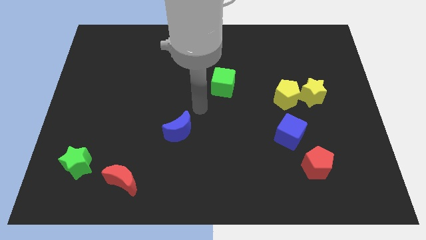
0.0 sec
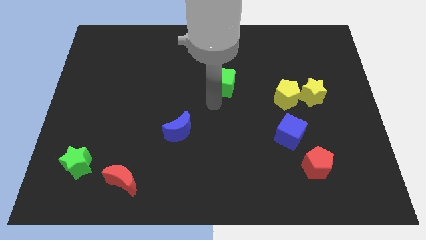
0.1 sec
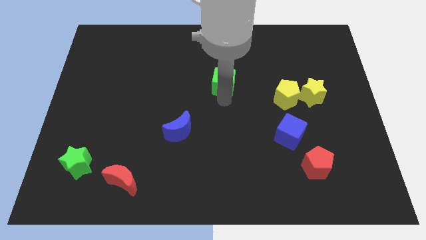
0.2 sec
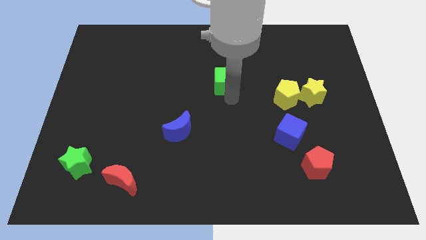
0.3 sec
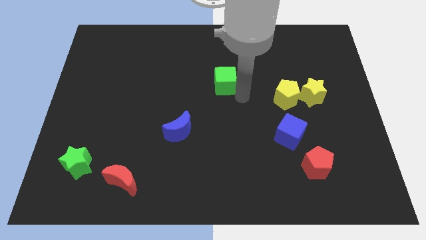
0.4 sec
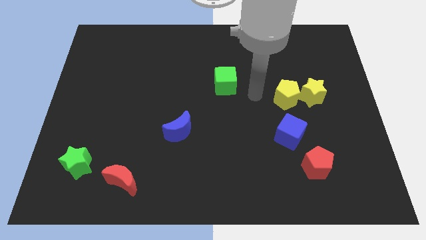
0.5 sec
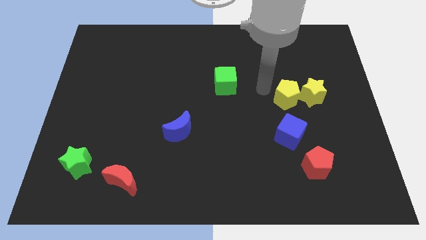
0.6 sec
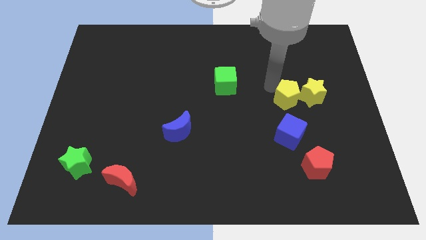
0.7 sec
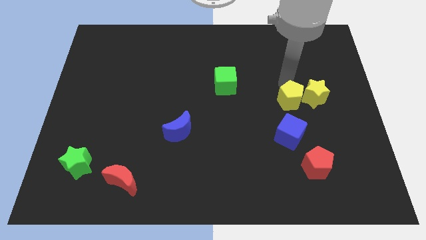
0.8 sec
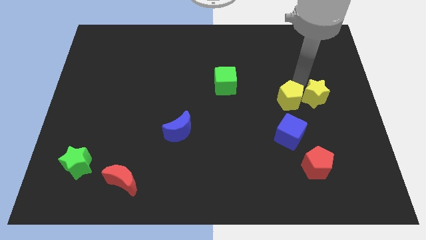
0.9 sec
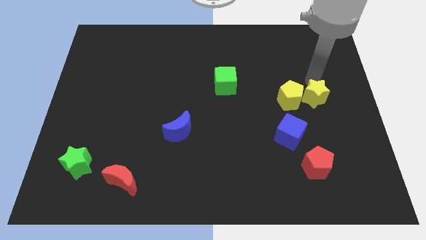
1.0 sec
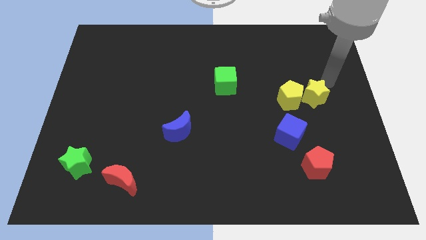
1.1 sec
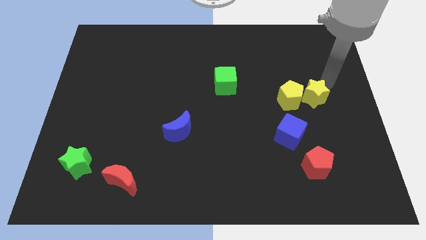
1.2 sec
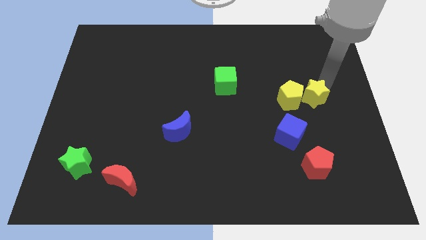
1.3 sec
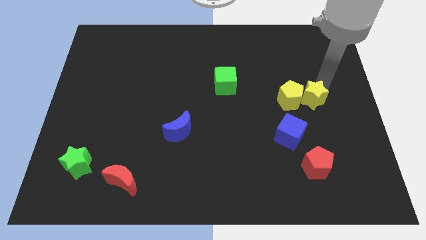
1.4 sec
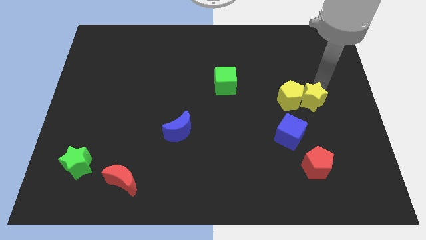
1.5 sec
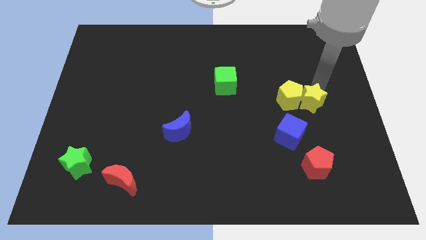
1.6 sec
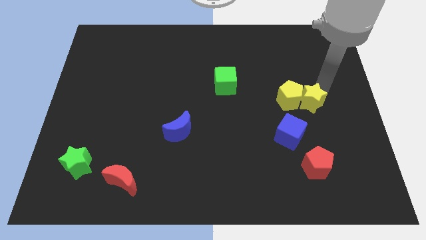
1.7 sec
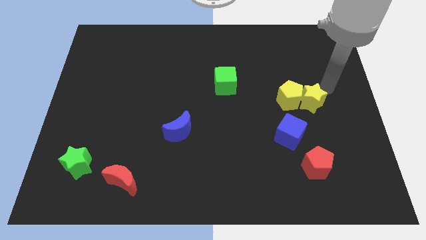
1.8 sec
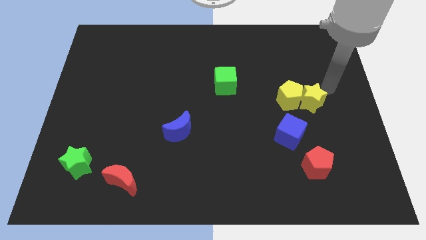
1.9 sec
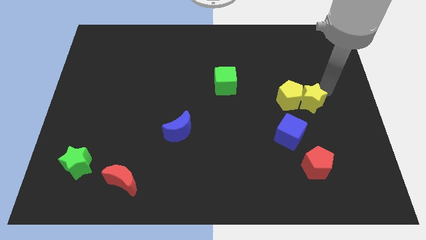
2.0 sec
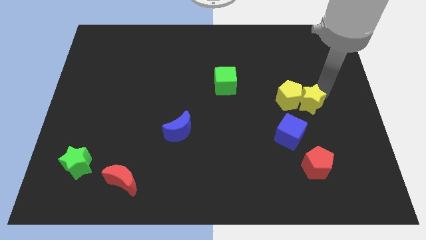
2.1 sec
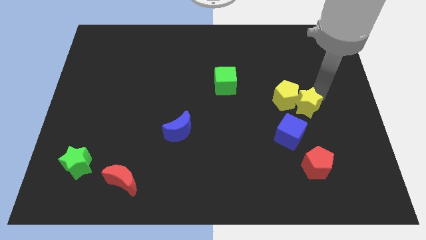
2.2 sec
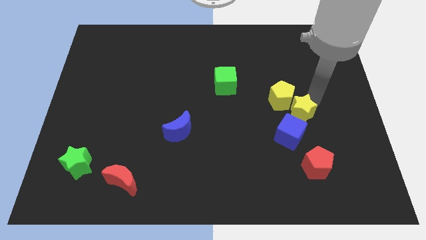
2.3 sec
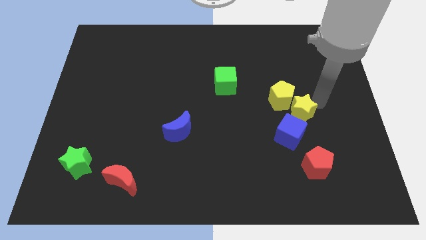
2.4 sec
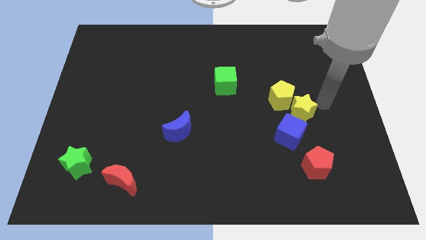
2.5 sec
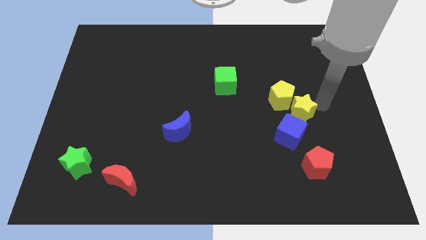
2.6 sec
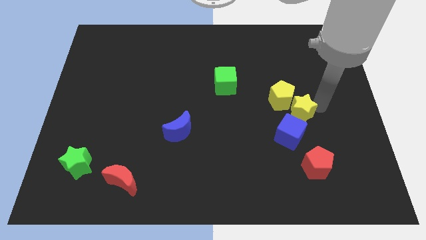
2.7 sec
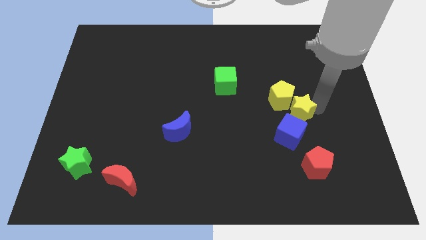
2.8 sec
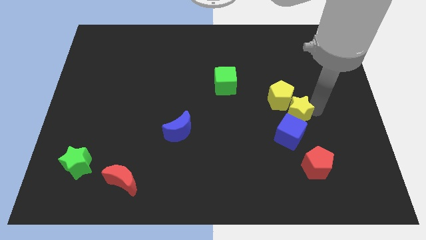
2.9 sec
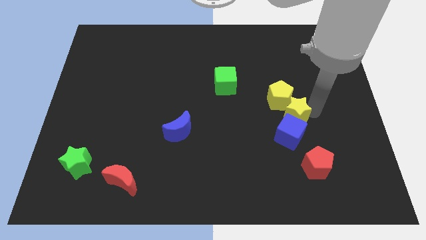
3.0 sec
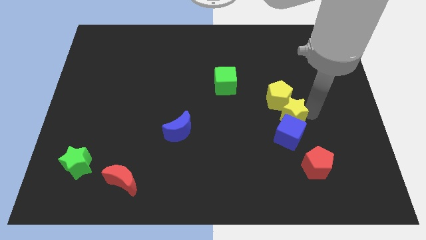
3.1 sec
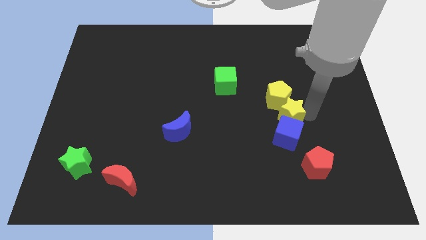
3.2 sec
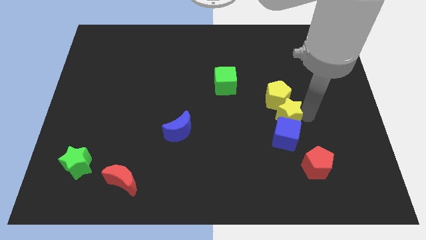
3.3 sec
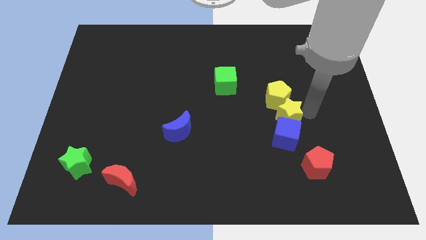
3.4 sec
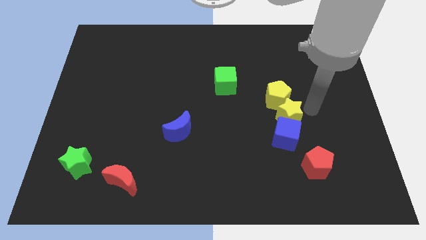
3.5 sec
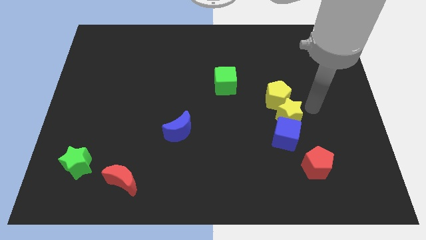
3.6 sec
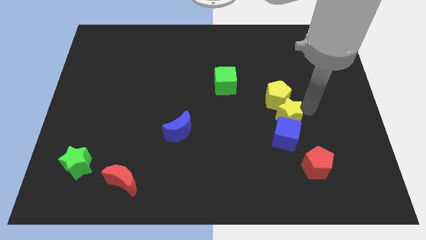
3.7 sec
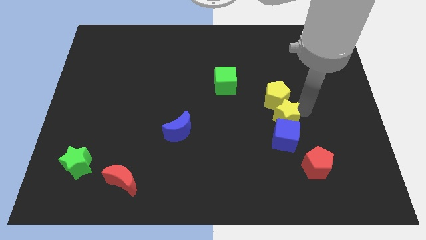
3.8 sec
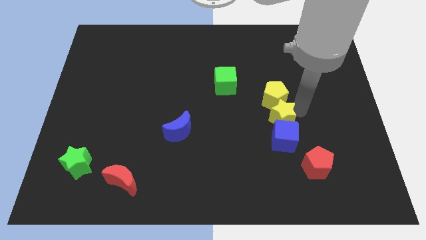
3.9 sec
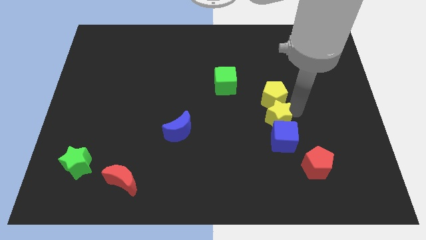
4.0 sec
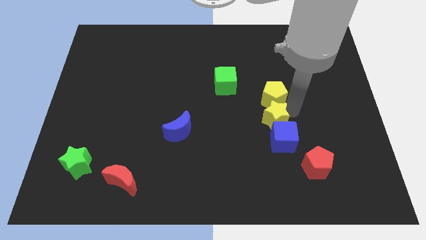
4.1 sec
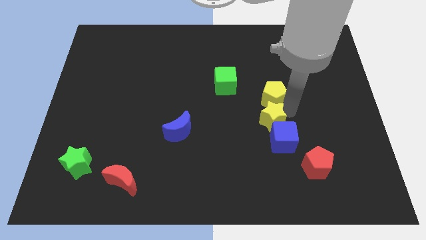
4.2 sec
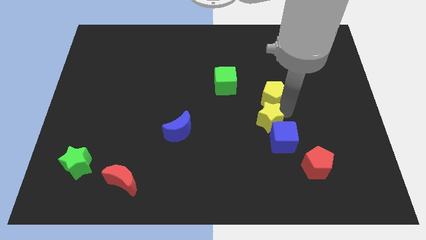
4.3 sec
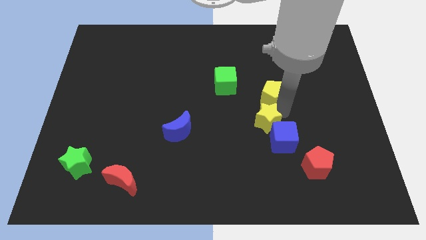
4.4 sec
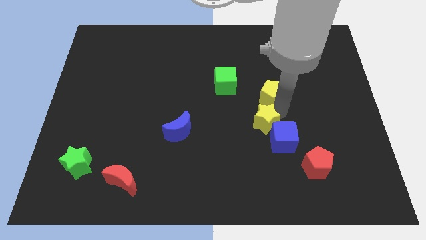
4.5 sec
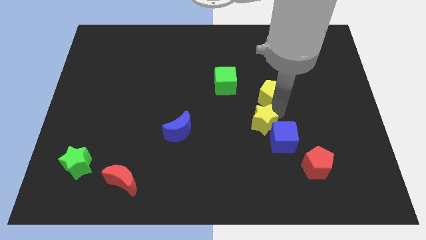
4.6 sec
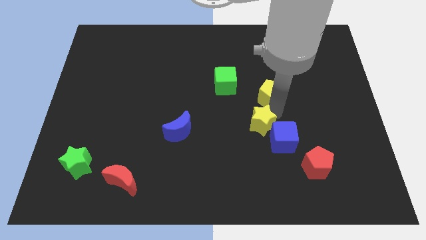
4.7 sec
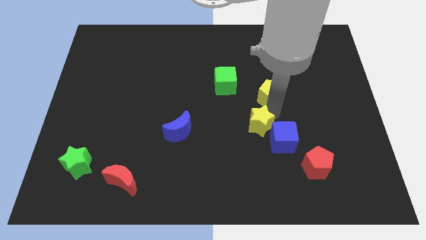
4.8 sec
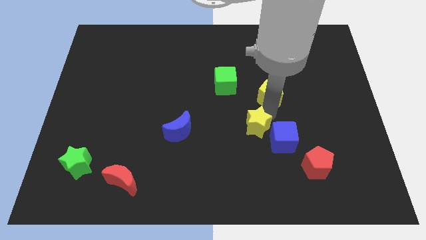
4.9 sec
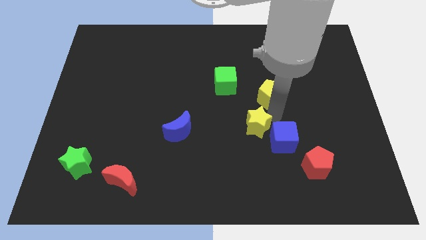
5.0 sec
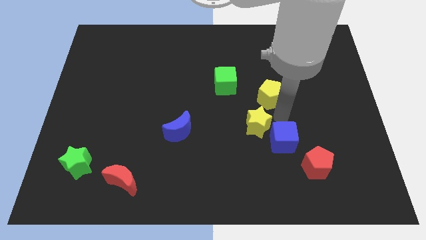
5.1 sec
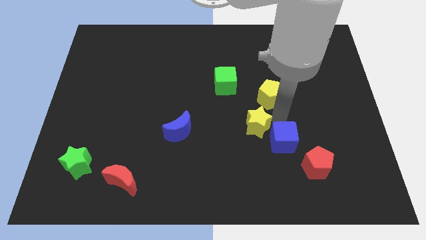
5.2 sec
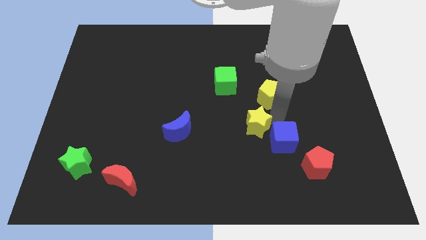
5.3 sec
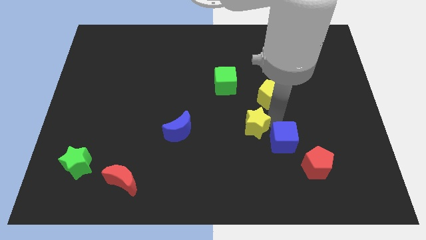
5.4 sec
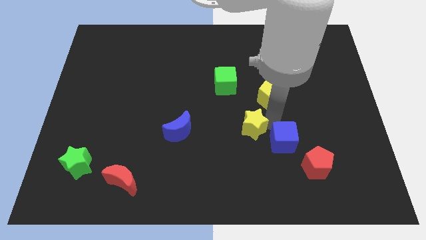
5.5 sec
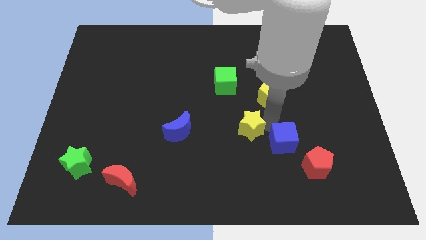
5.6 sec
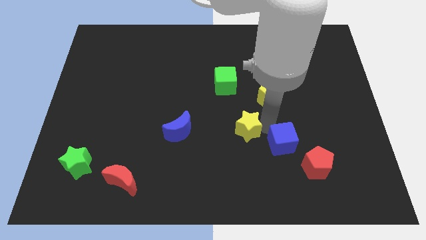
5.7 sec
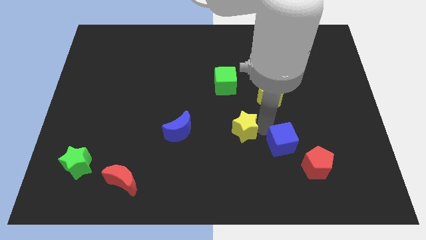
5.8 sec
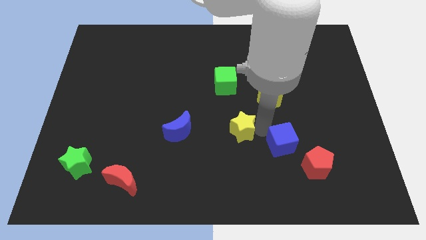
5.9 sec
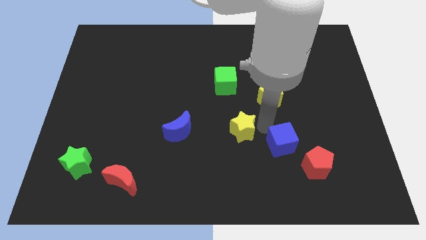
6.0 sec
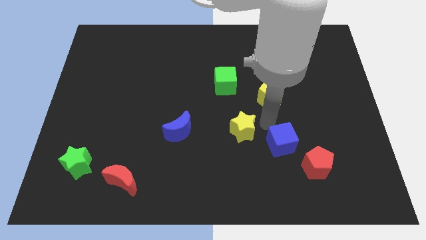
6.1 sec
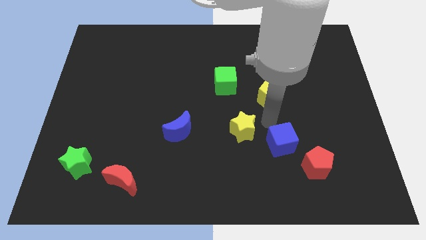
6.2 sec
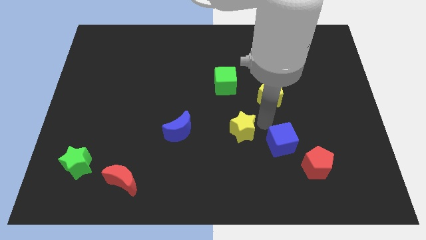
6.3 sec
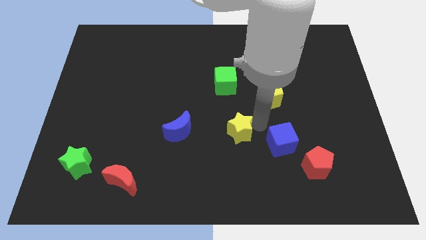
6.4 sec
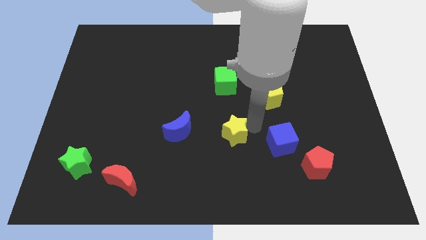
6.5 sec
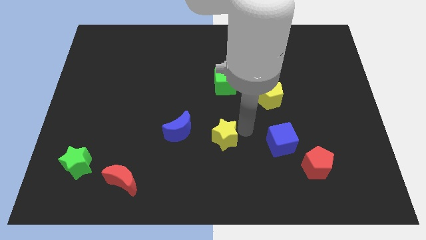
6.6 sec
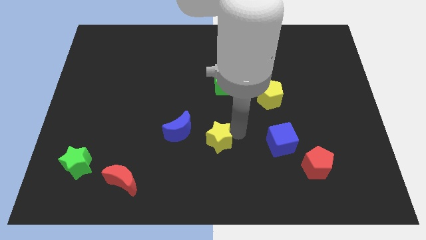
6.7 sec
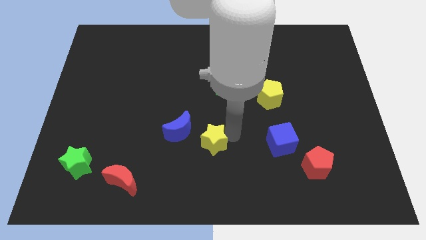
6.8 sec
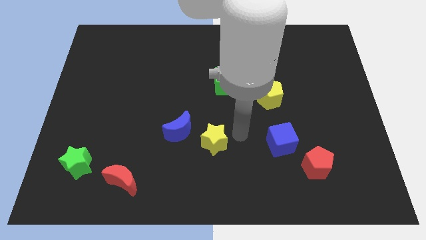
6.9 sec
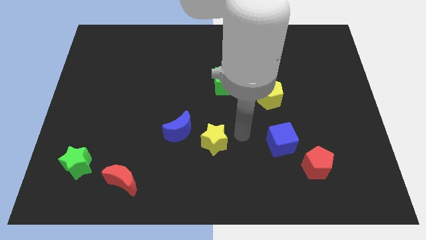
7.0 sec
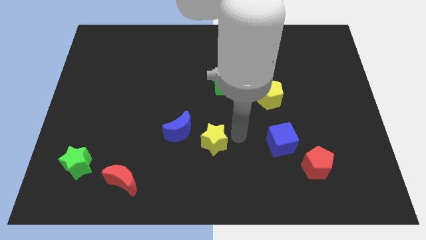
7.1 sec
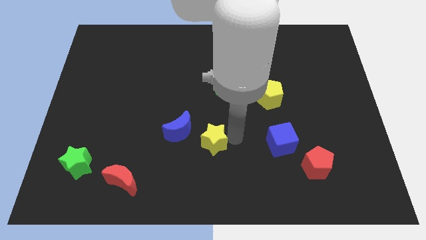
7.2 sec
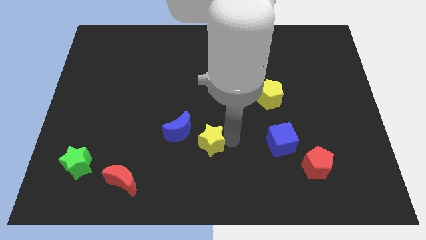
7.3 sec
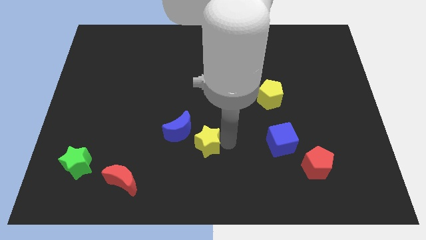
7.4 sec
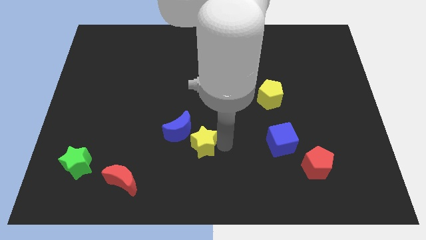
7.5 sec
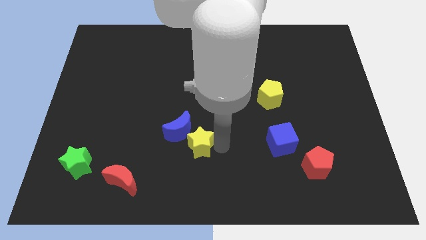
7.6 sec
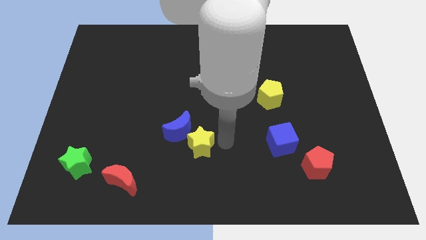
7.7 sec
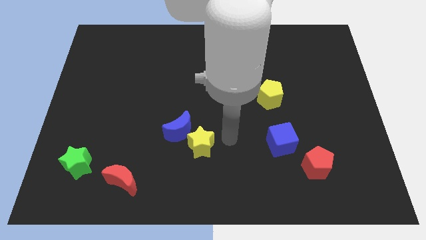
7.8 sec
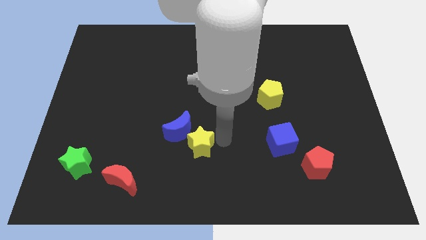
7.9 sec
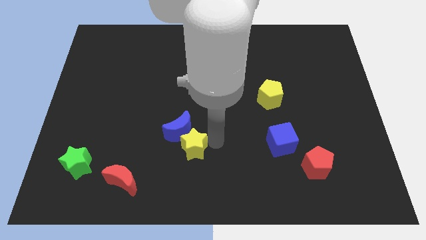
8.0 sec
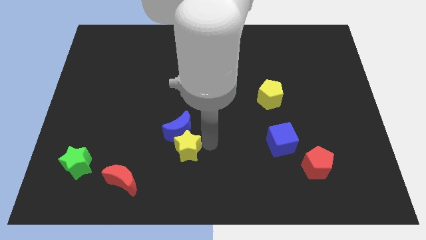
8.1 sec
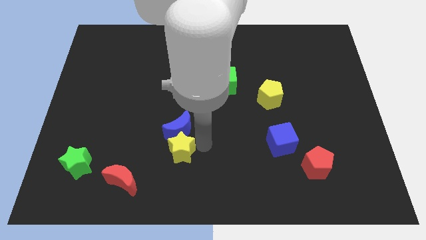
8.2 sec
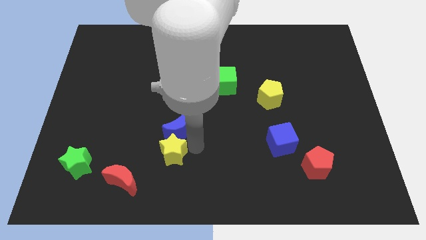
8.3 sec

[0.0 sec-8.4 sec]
slide the yellow star to the top right side of the red moon
